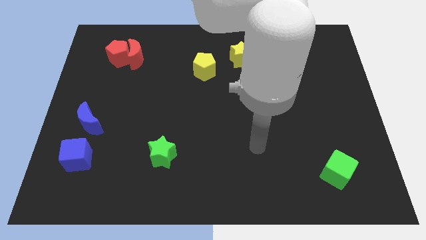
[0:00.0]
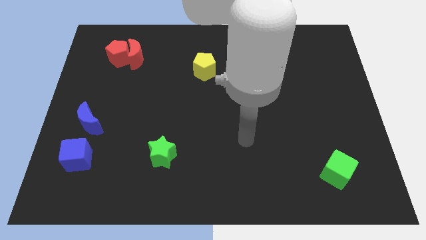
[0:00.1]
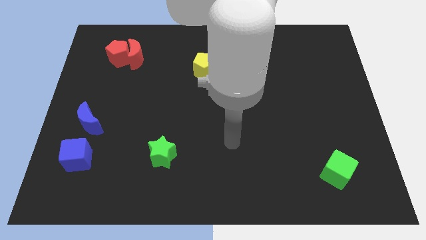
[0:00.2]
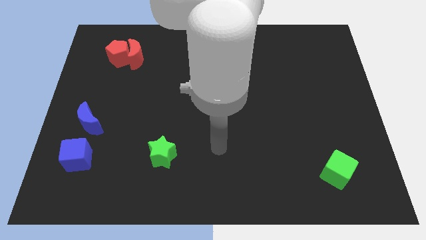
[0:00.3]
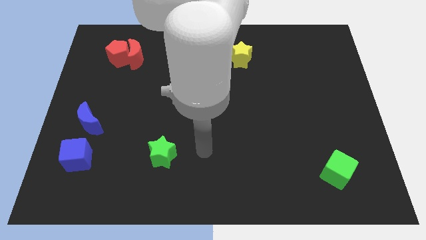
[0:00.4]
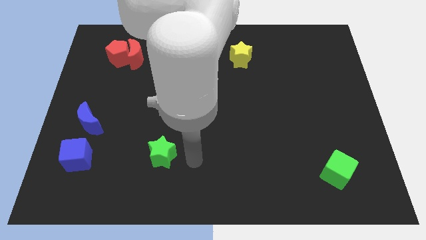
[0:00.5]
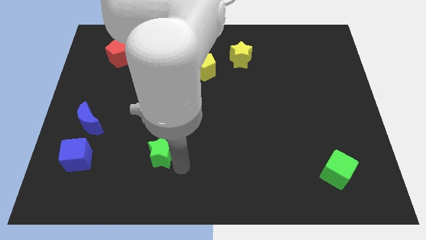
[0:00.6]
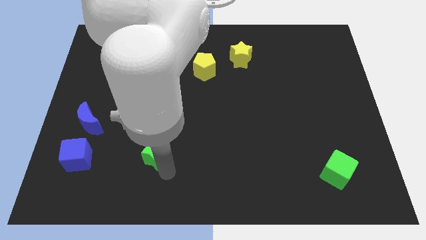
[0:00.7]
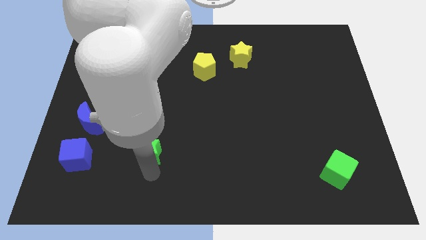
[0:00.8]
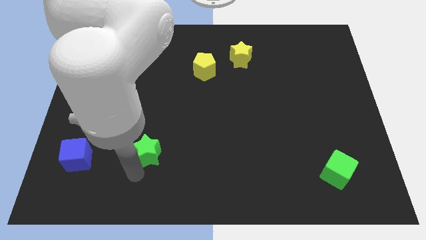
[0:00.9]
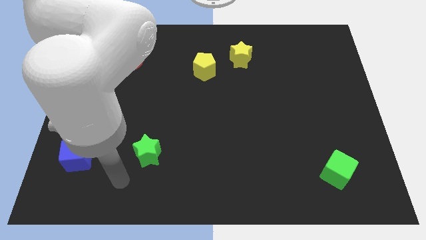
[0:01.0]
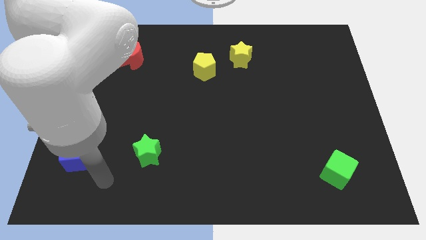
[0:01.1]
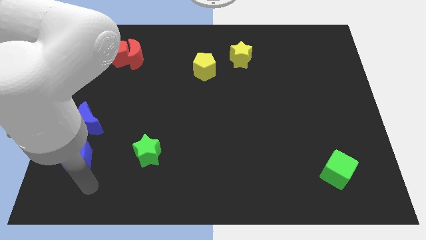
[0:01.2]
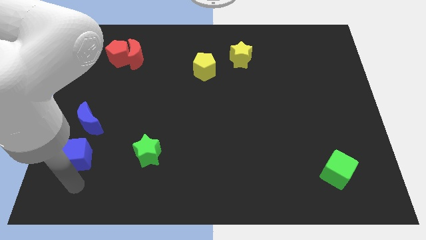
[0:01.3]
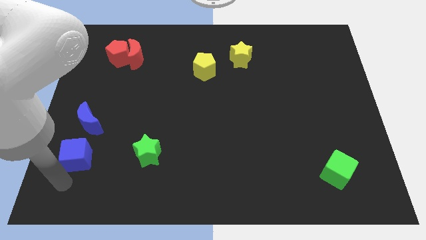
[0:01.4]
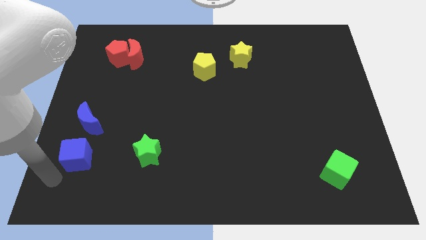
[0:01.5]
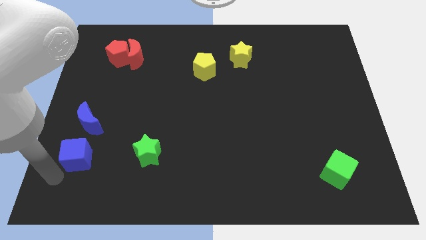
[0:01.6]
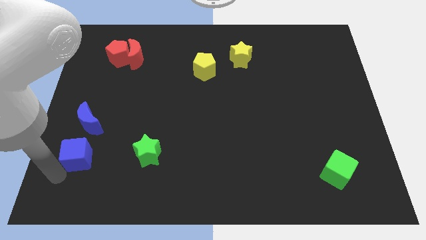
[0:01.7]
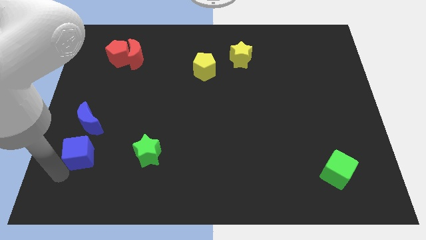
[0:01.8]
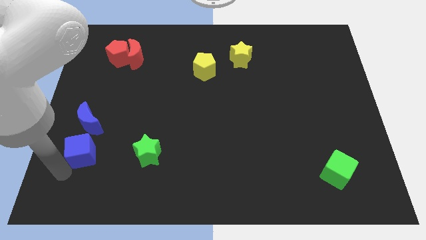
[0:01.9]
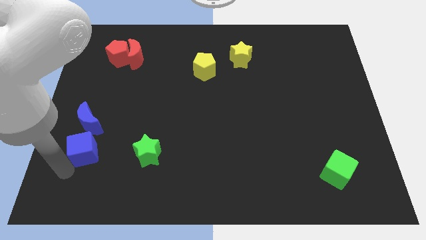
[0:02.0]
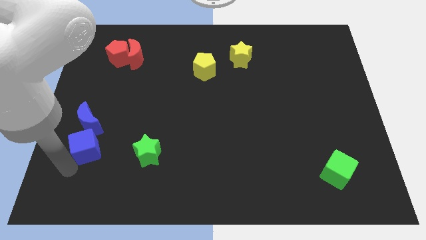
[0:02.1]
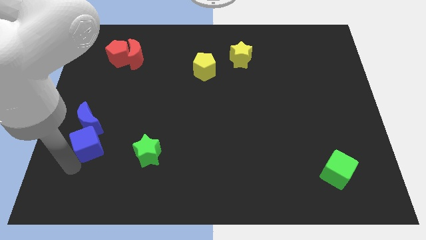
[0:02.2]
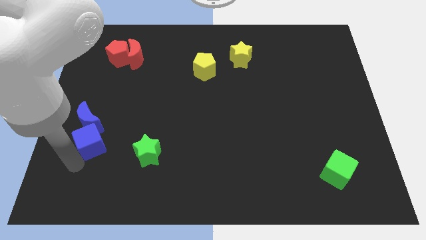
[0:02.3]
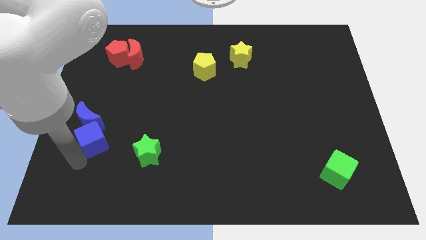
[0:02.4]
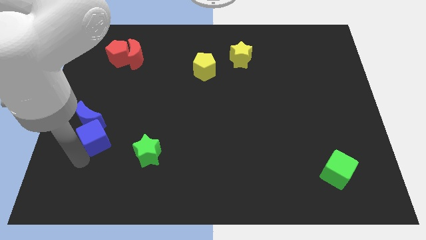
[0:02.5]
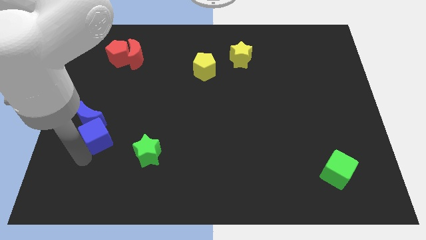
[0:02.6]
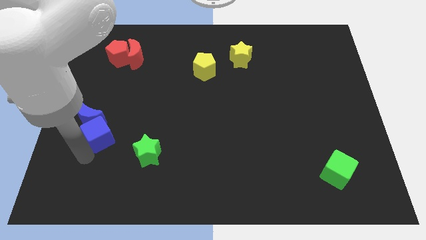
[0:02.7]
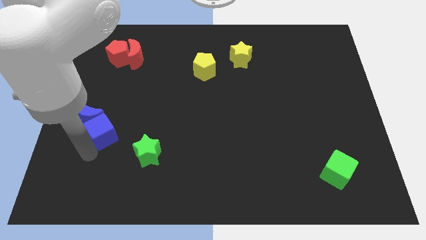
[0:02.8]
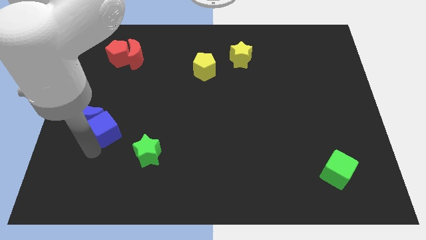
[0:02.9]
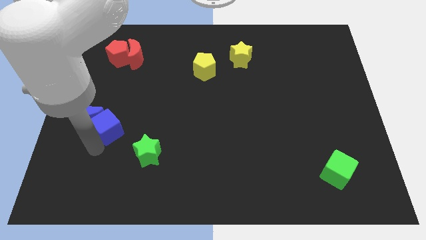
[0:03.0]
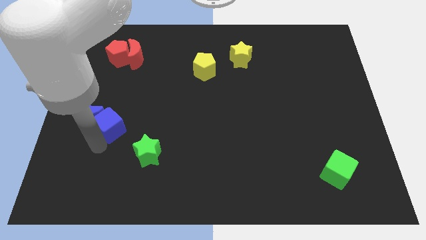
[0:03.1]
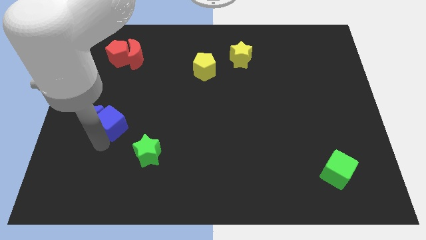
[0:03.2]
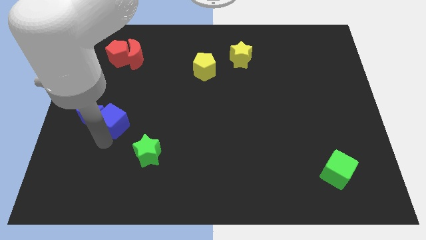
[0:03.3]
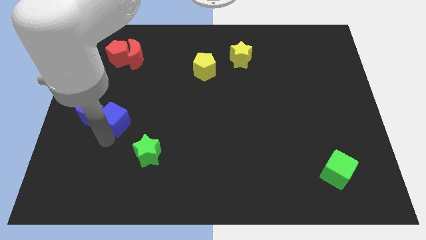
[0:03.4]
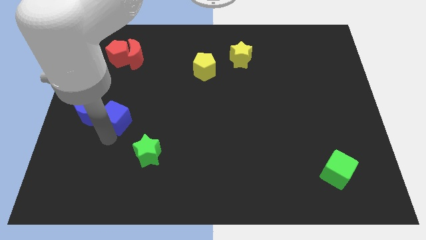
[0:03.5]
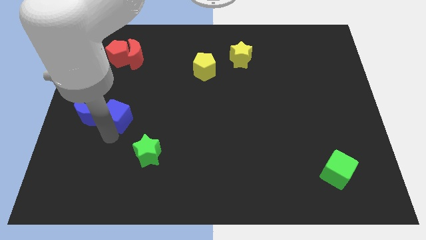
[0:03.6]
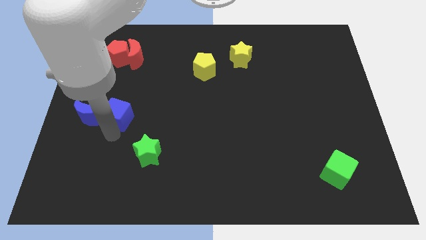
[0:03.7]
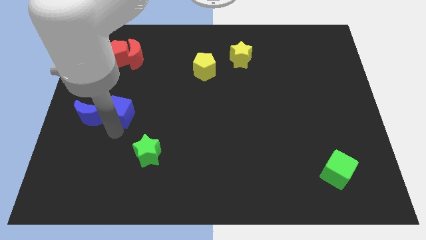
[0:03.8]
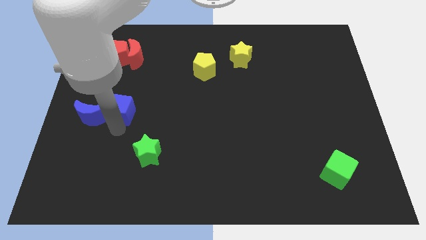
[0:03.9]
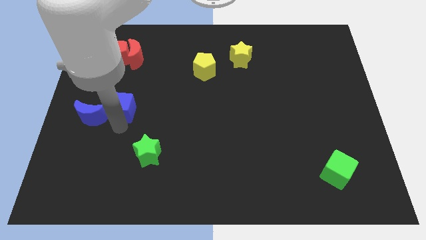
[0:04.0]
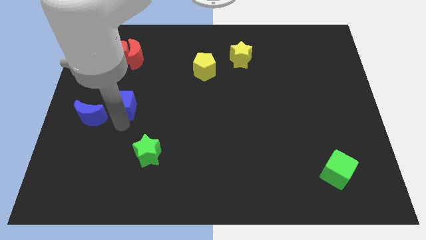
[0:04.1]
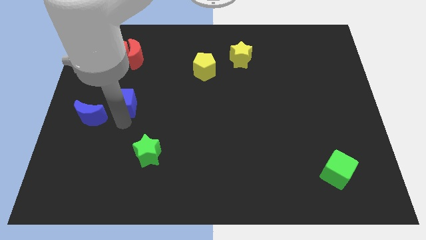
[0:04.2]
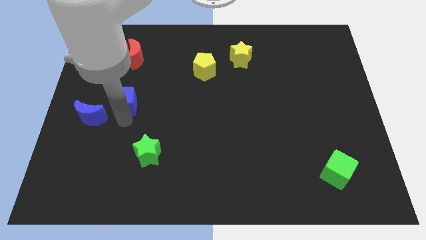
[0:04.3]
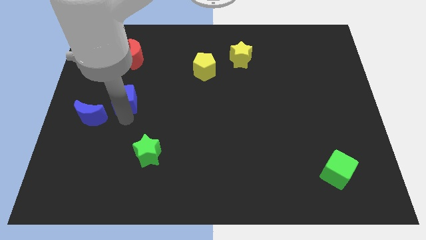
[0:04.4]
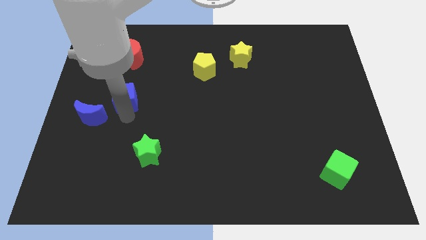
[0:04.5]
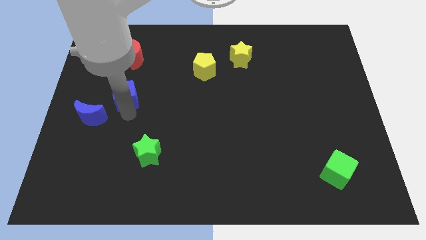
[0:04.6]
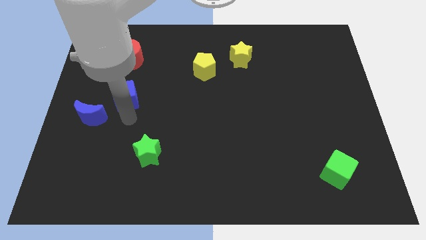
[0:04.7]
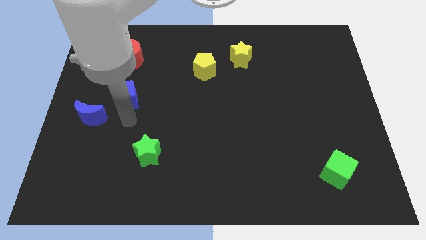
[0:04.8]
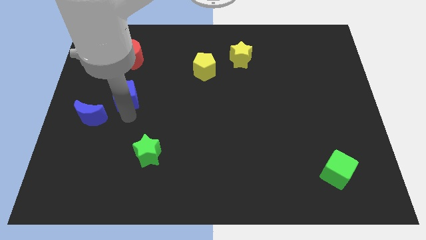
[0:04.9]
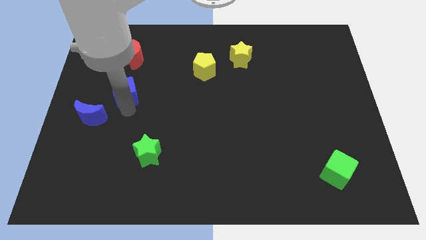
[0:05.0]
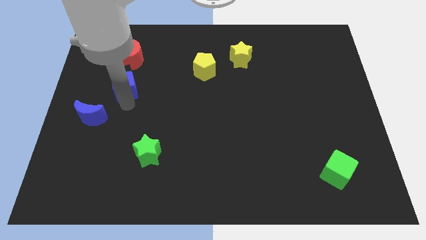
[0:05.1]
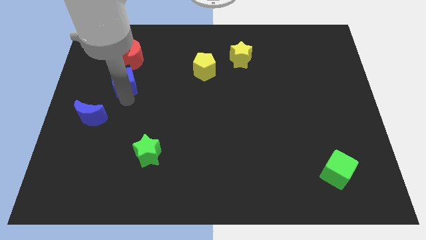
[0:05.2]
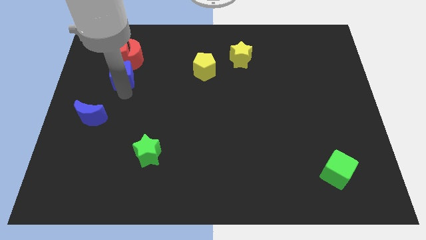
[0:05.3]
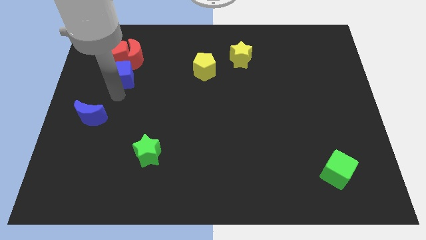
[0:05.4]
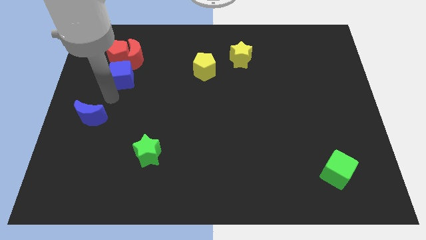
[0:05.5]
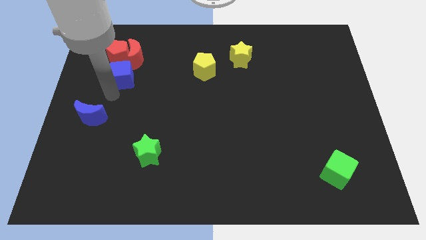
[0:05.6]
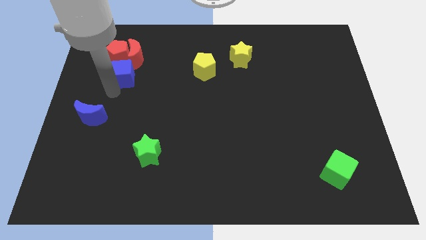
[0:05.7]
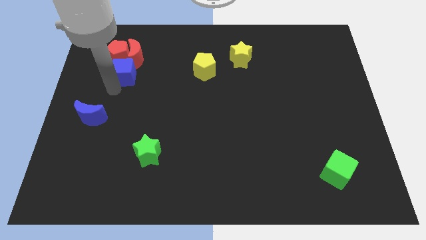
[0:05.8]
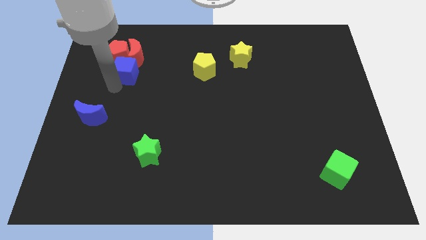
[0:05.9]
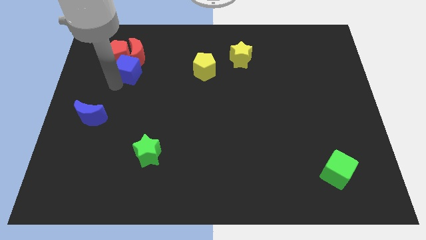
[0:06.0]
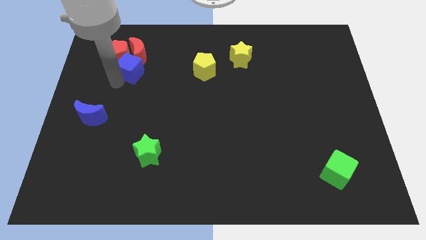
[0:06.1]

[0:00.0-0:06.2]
push the blue cube close to the red moon

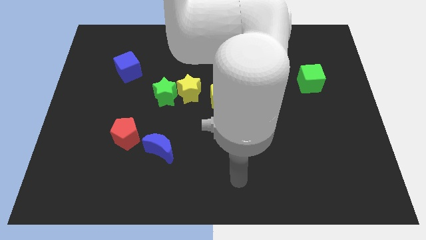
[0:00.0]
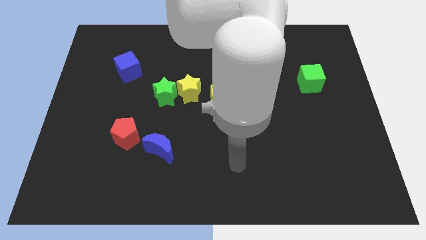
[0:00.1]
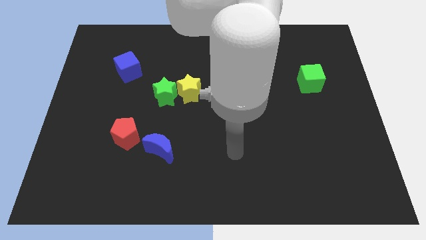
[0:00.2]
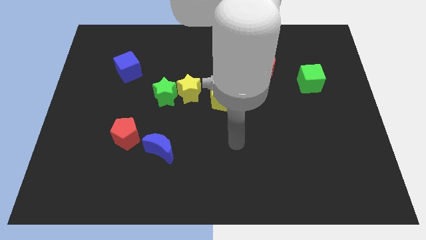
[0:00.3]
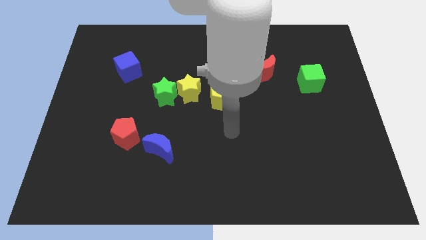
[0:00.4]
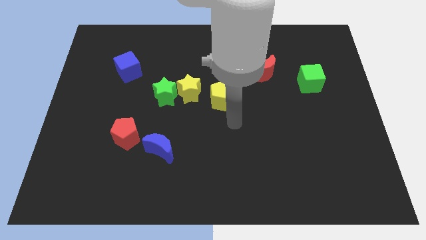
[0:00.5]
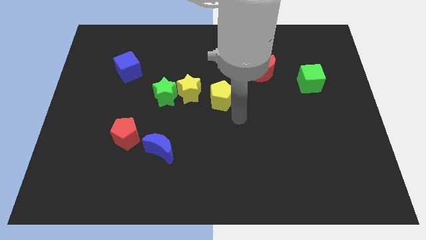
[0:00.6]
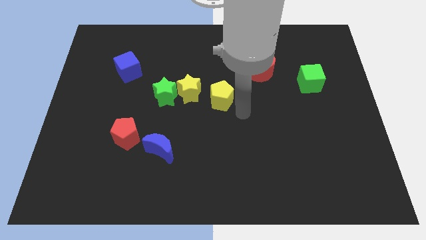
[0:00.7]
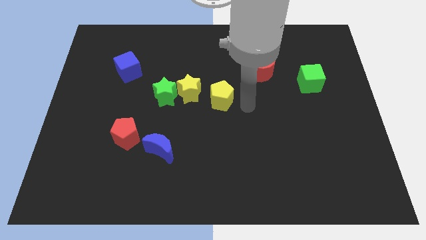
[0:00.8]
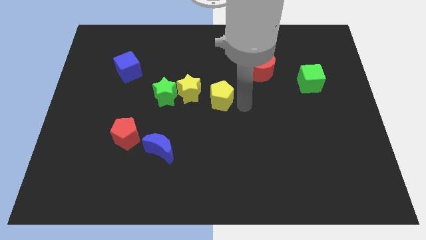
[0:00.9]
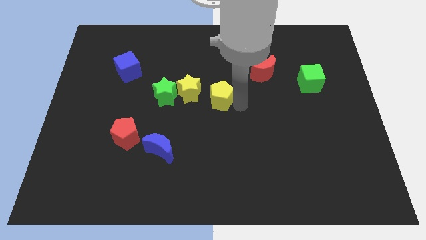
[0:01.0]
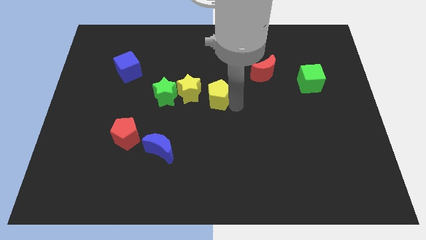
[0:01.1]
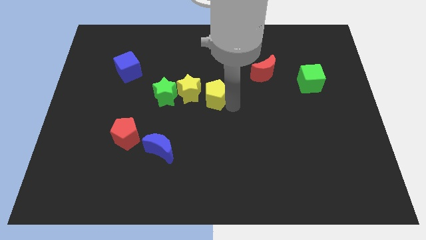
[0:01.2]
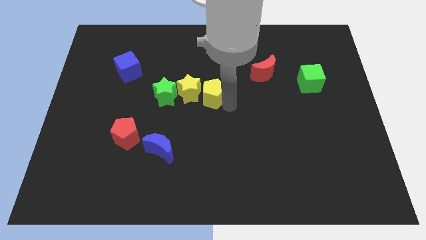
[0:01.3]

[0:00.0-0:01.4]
move the yellow pentagon next to the yellow star
